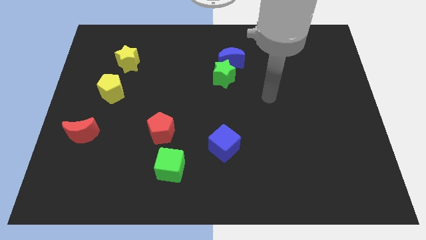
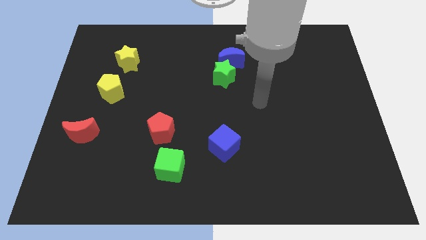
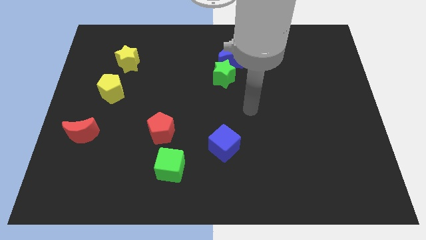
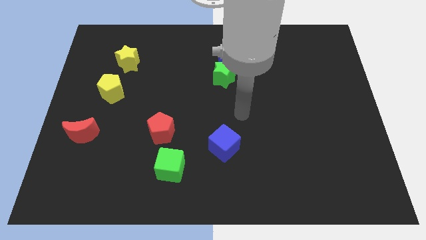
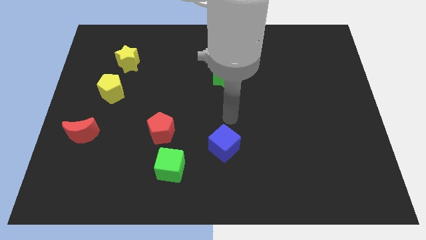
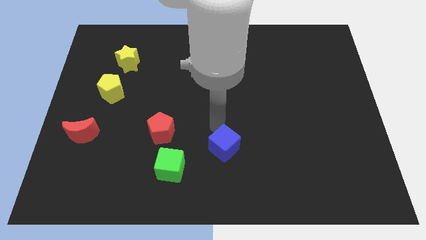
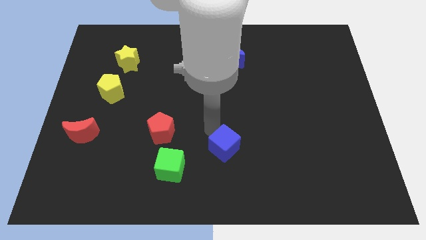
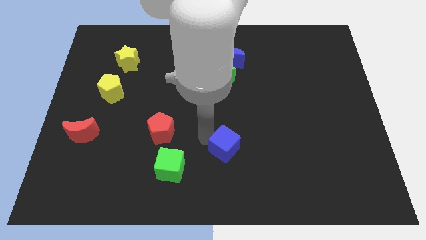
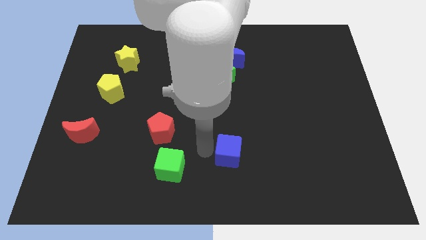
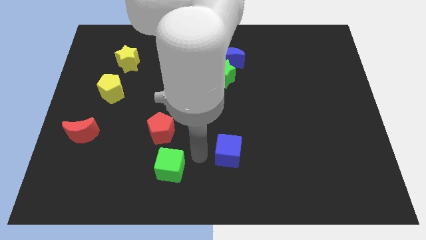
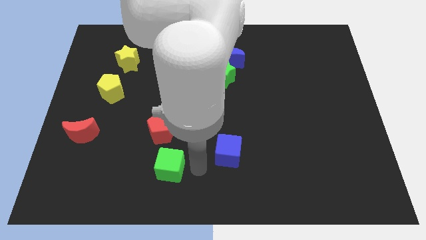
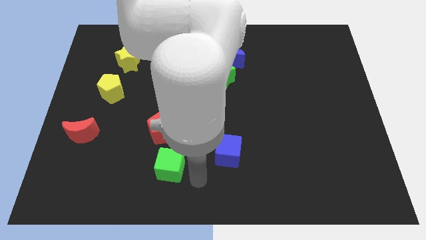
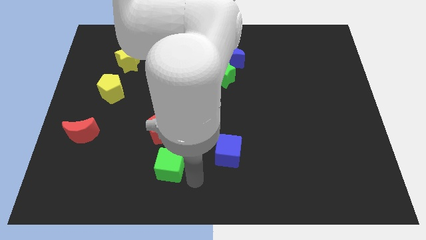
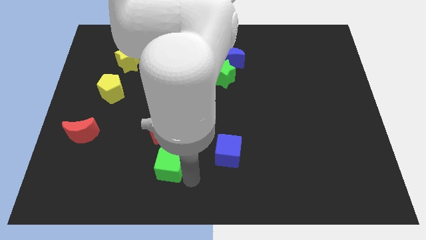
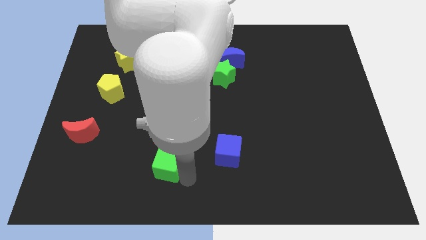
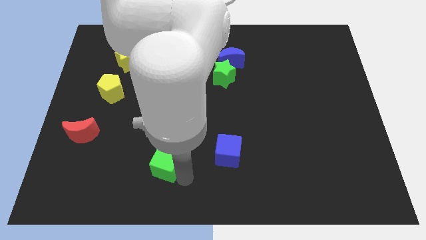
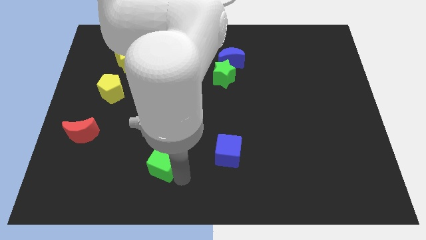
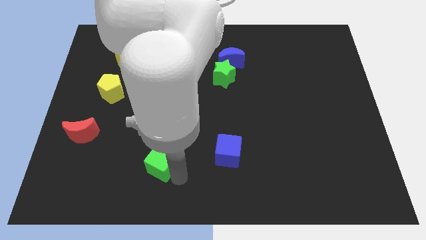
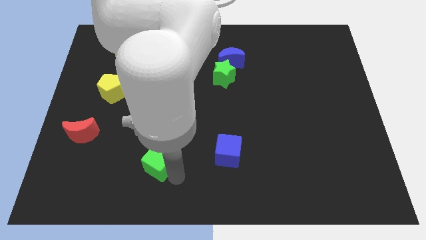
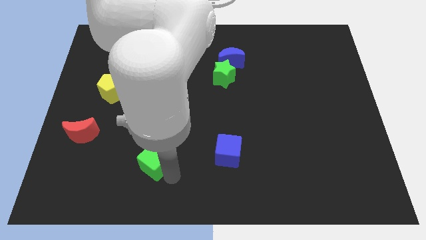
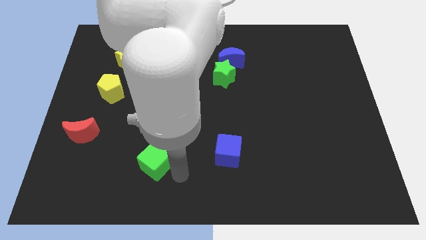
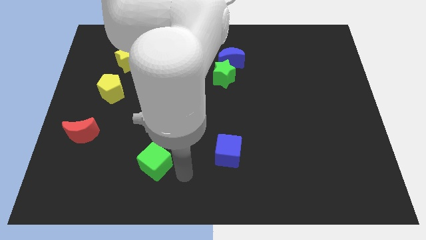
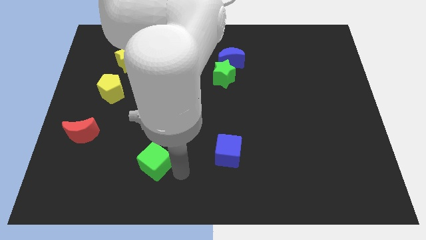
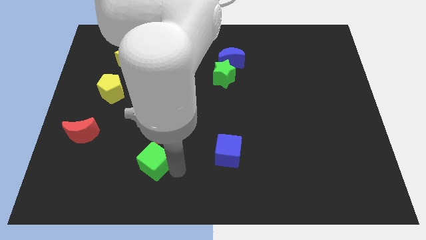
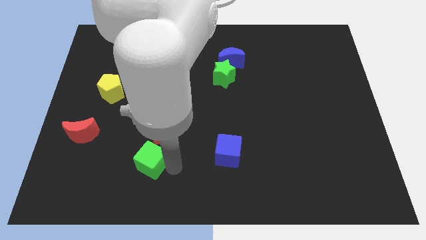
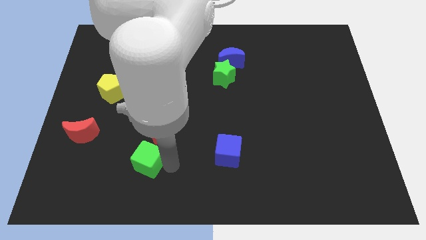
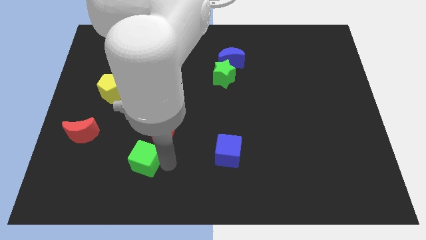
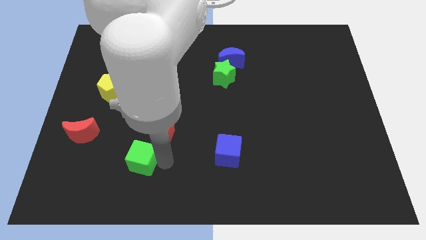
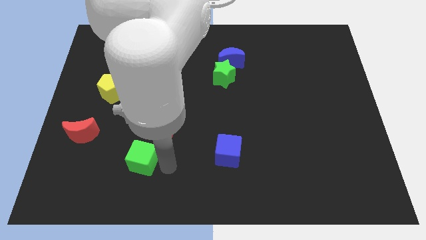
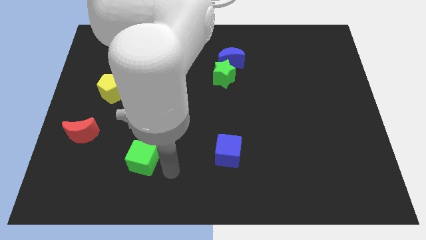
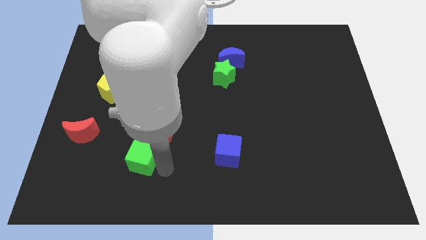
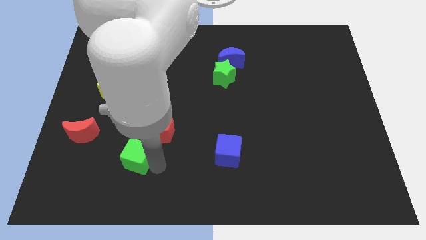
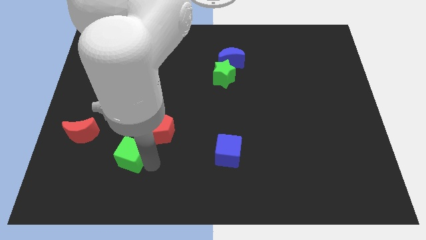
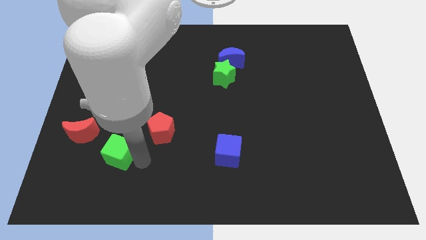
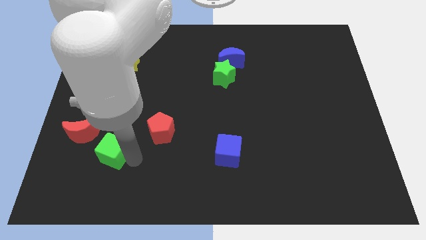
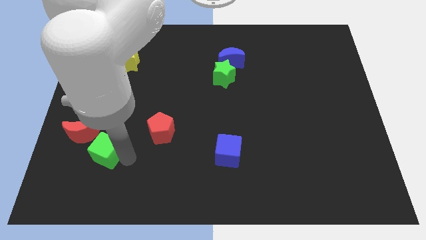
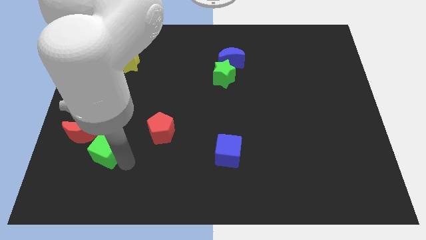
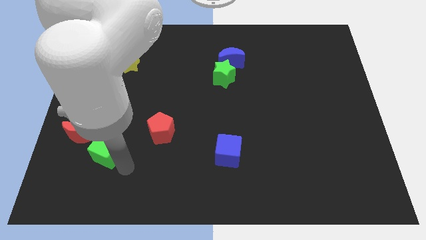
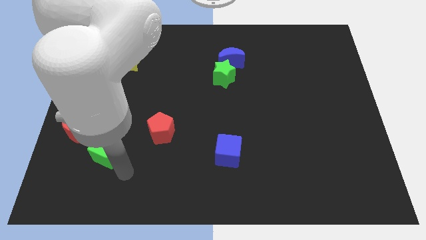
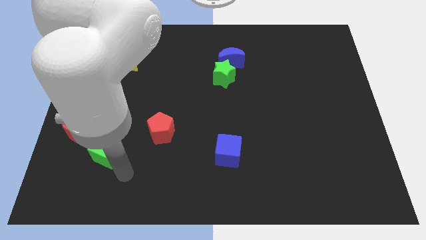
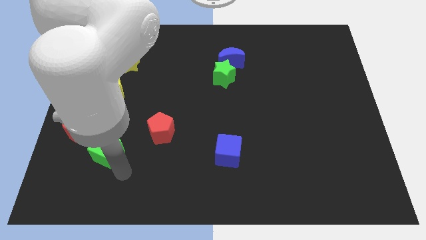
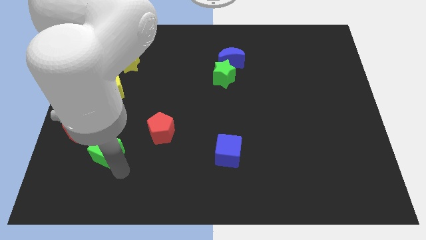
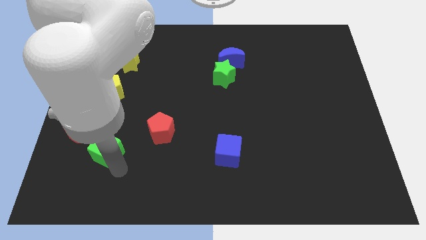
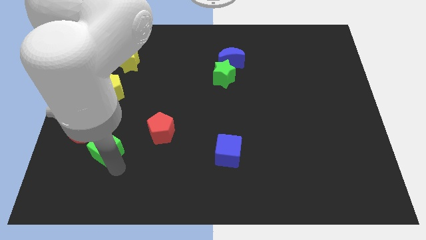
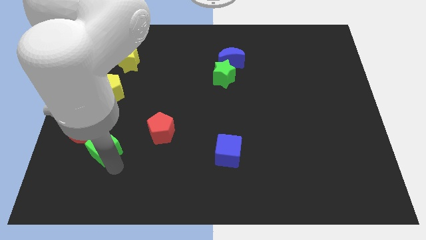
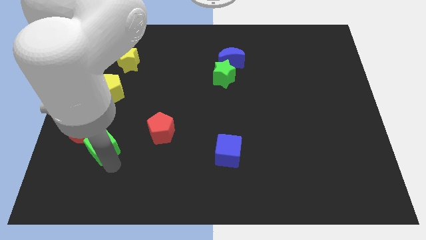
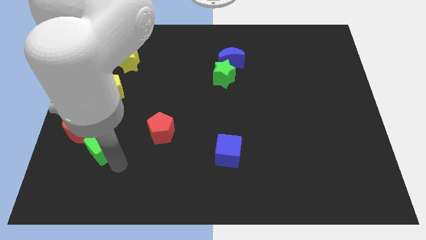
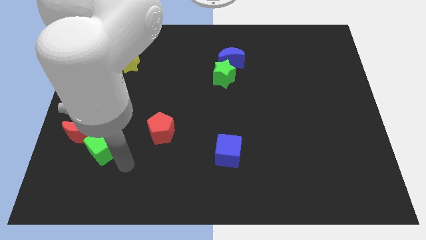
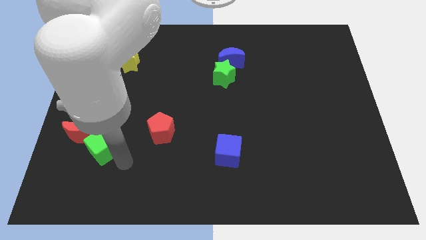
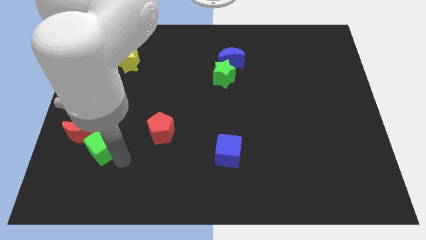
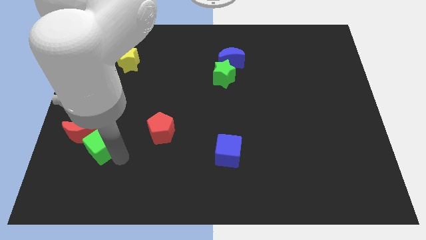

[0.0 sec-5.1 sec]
put the green cube close to the red moon

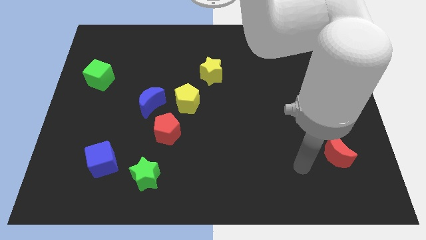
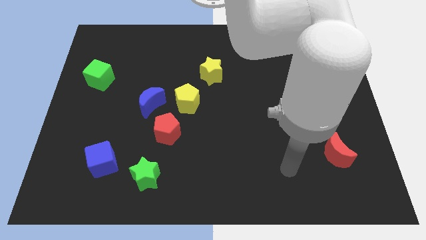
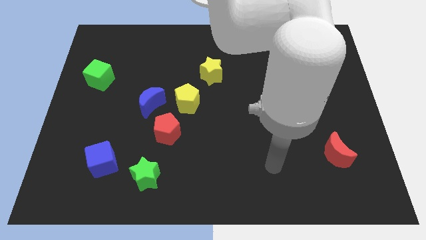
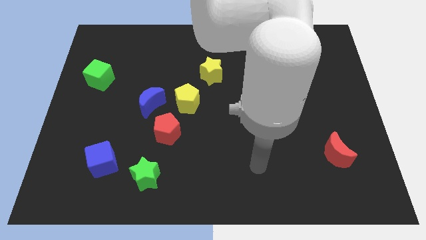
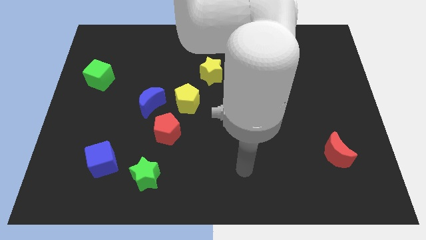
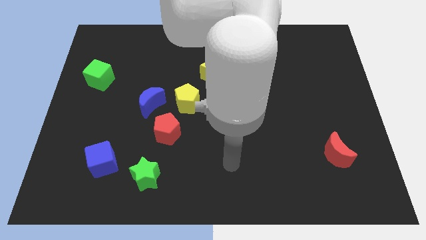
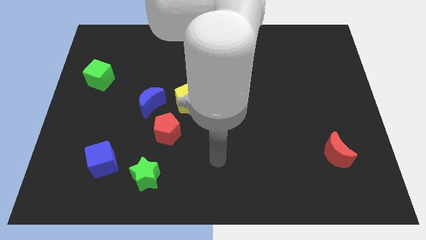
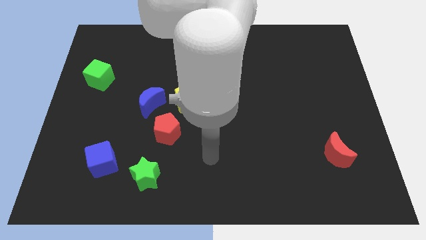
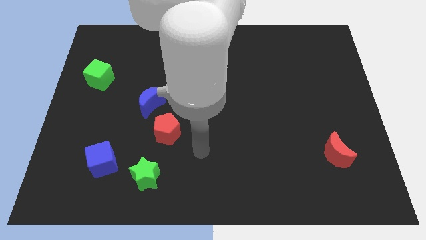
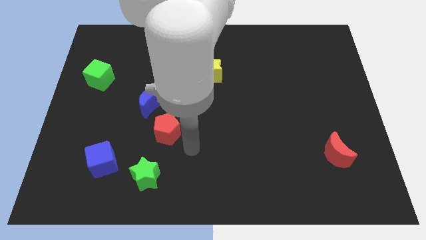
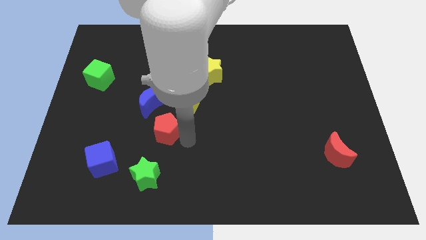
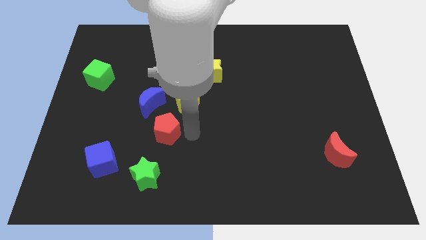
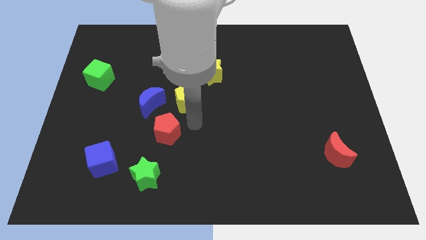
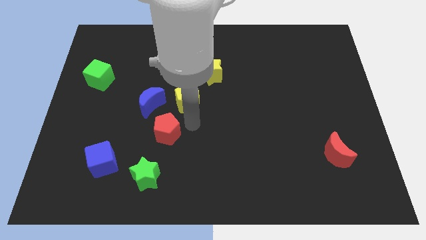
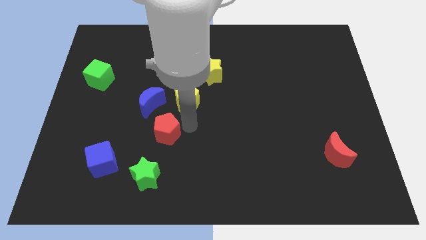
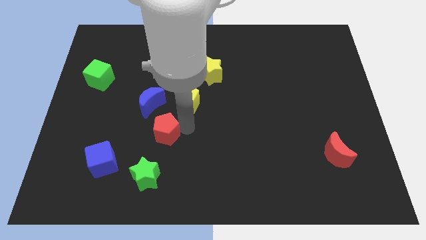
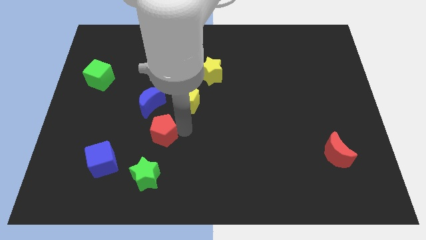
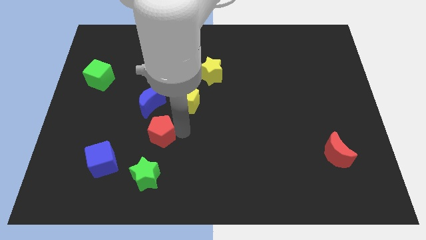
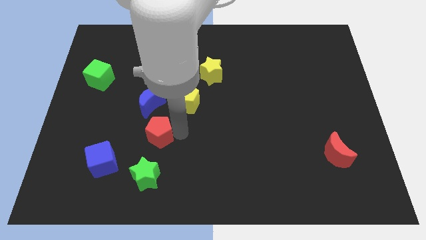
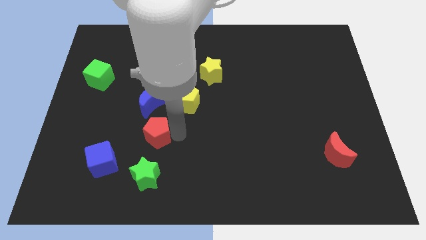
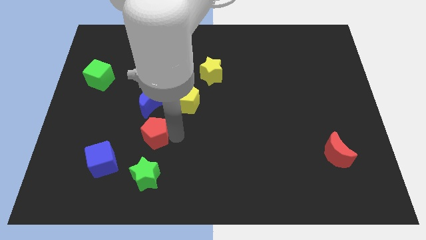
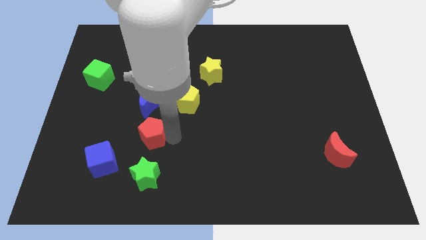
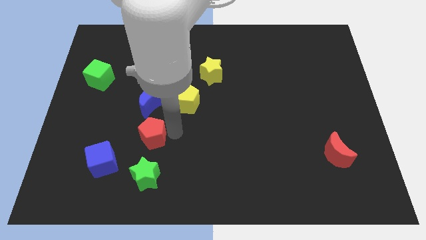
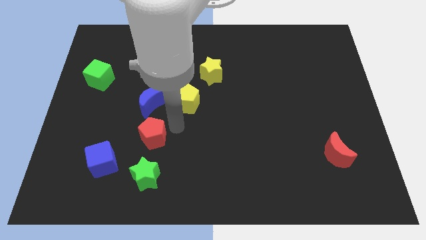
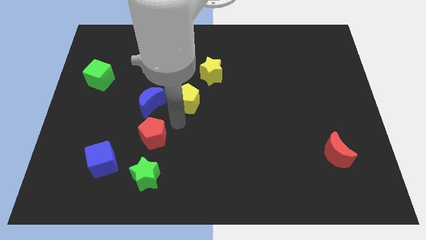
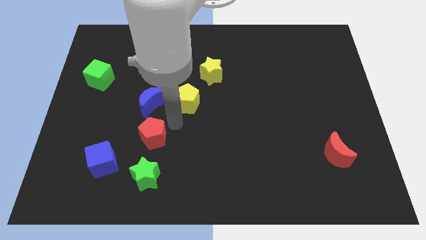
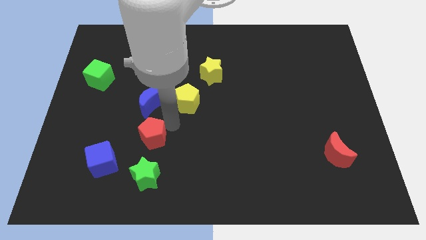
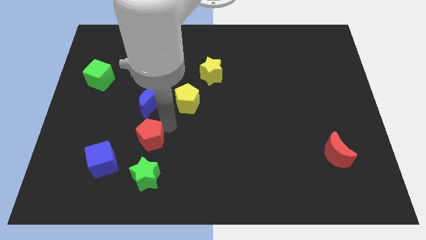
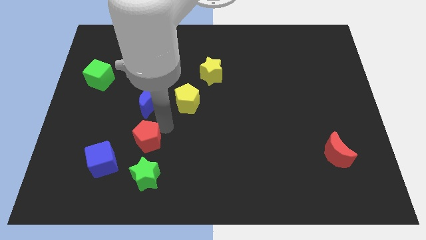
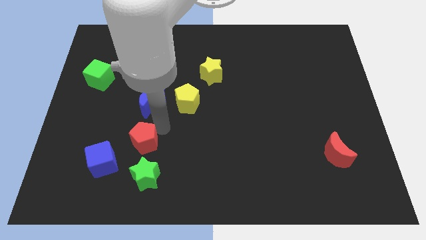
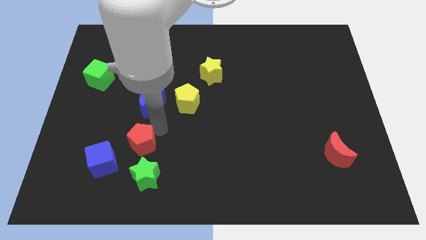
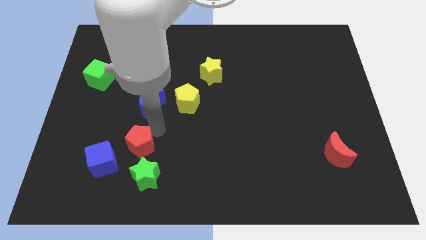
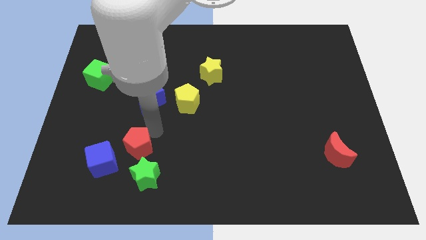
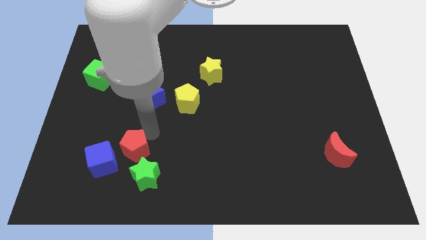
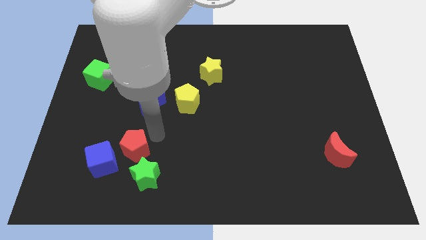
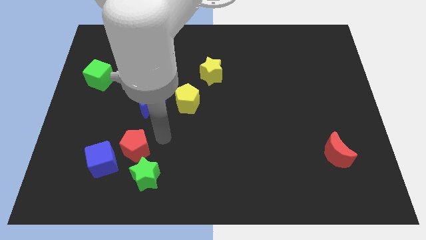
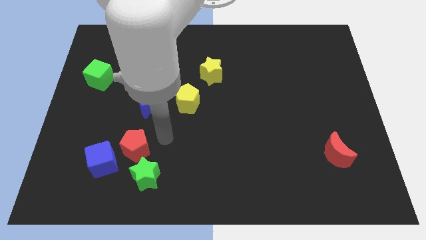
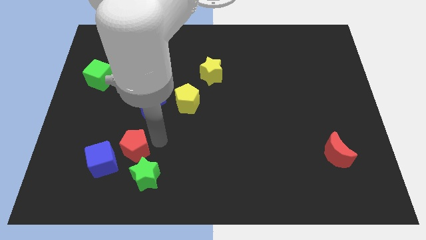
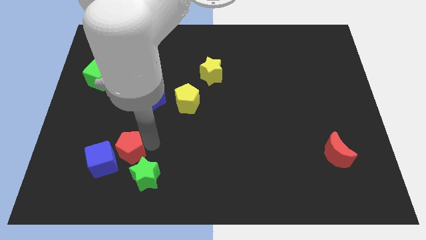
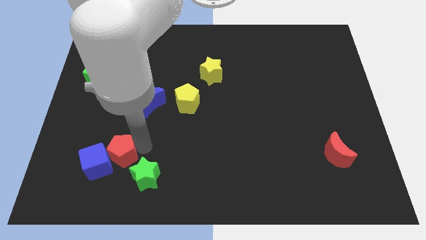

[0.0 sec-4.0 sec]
slide the red pentagon close to the blue cube
